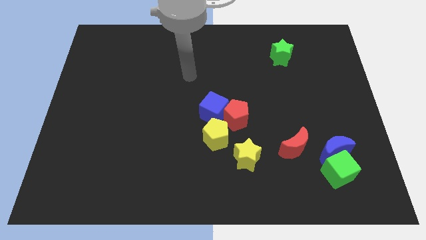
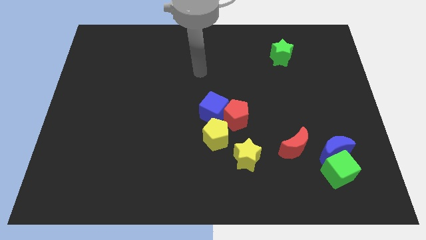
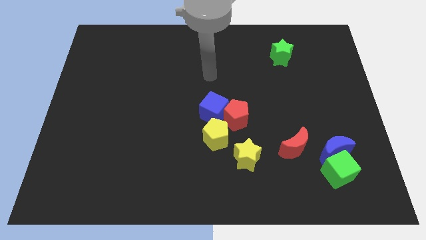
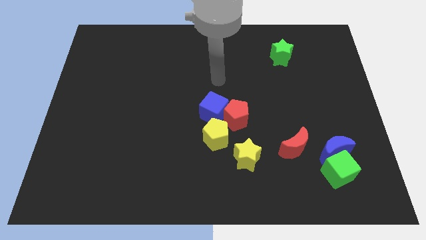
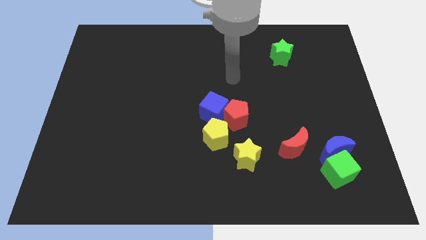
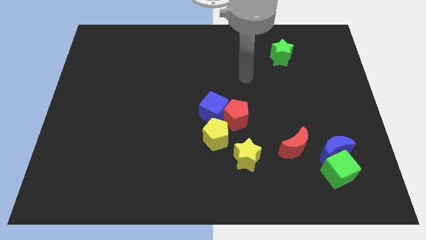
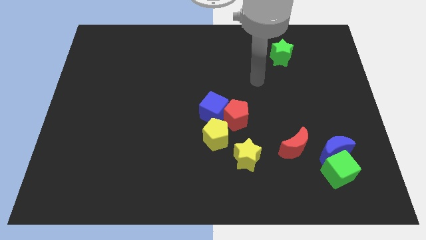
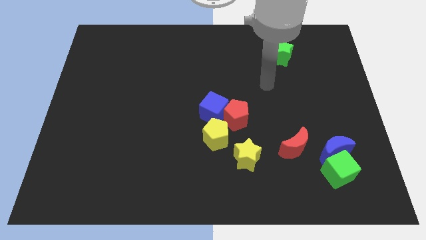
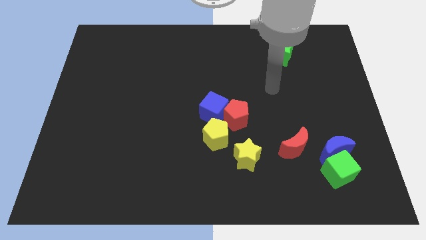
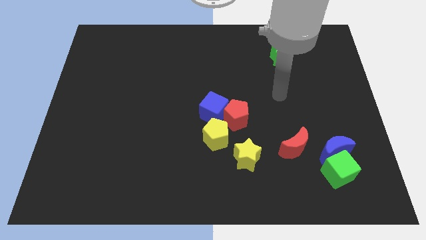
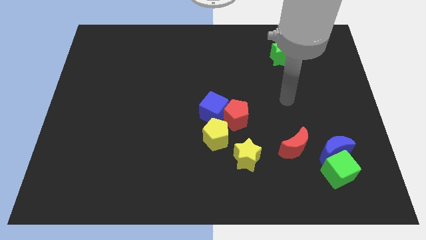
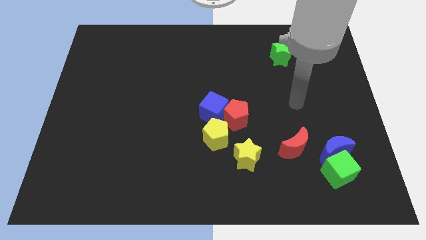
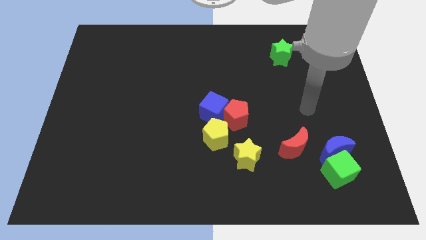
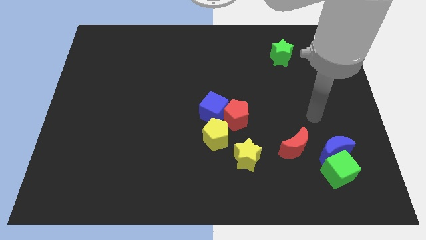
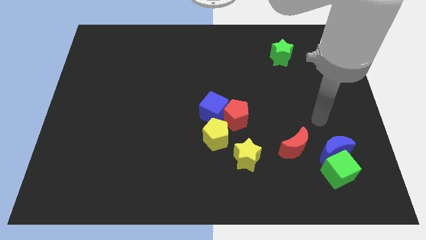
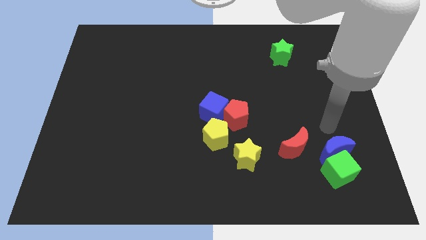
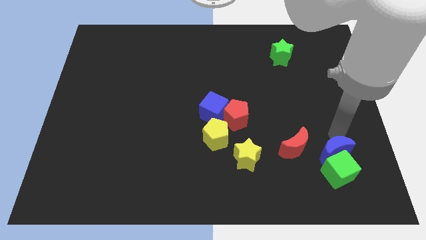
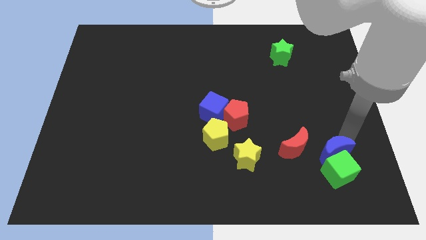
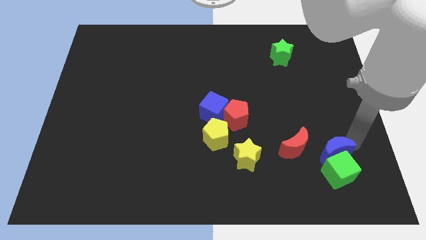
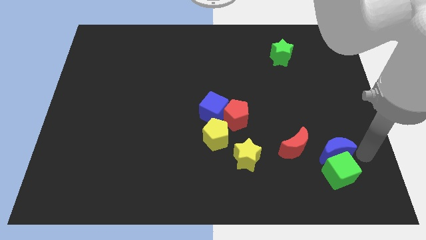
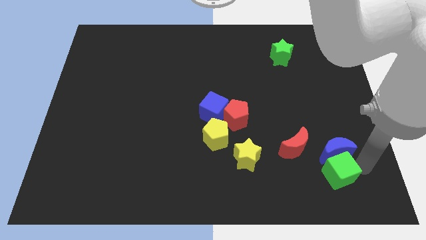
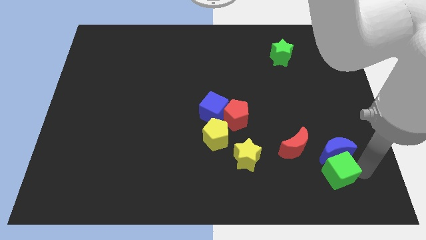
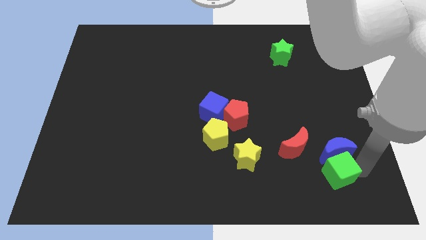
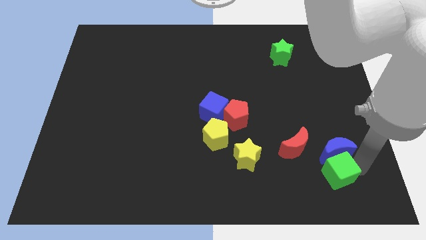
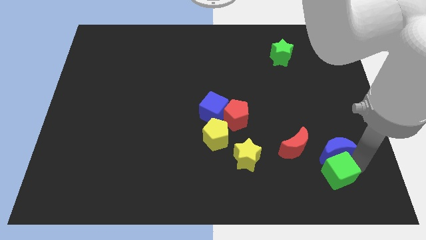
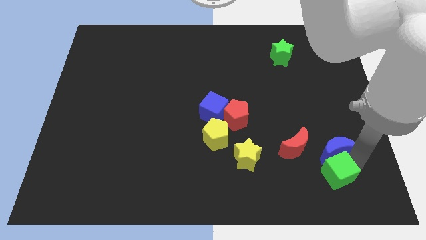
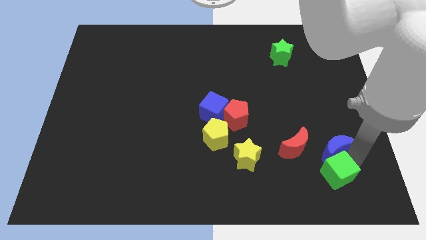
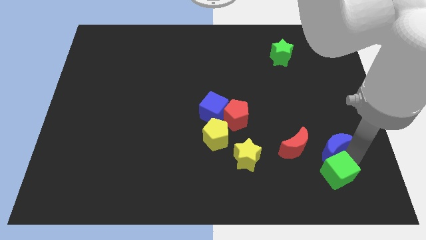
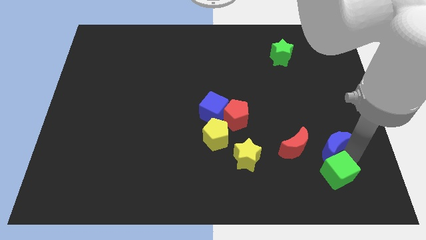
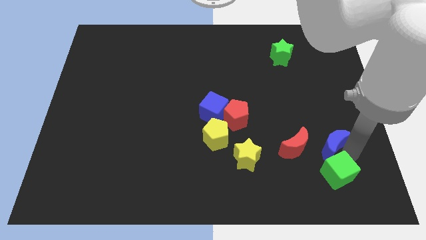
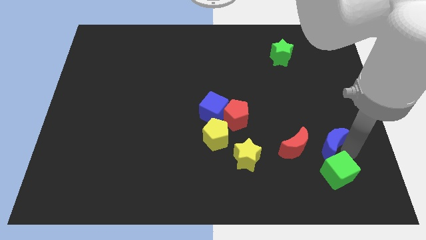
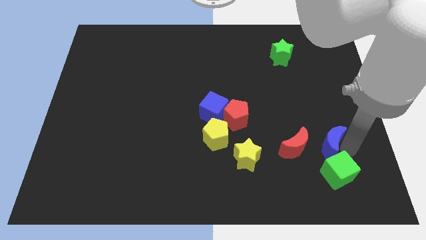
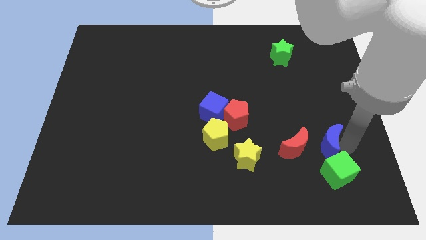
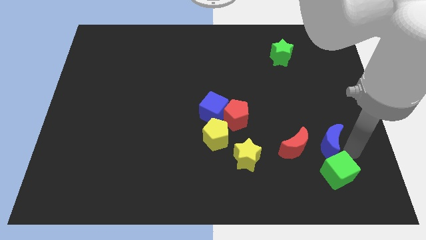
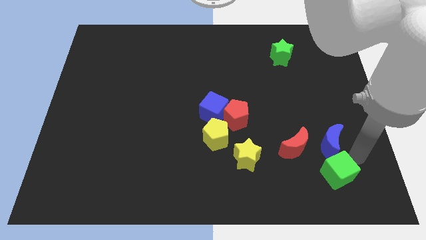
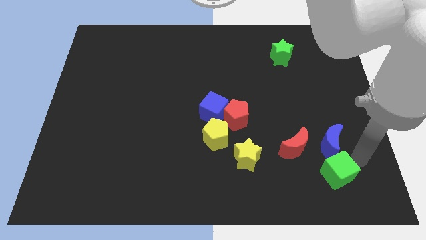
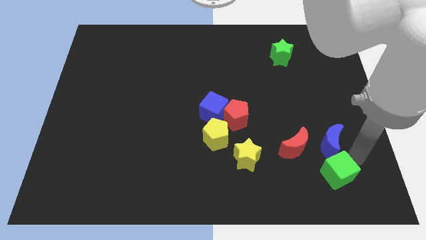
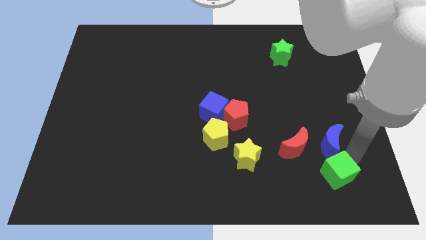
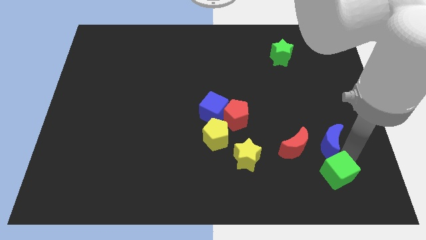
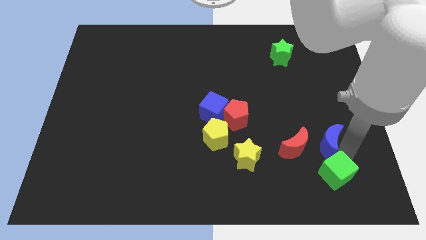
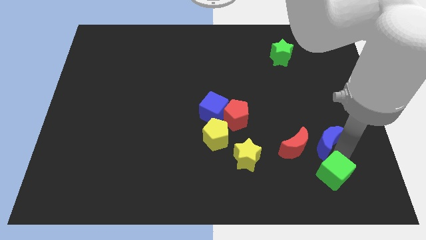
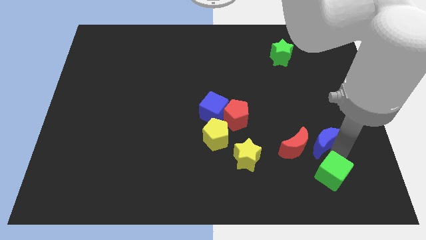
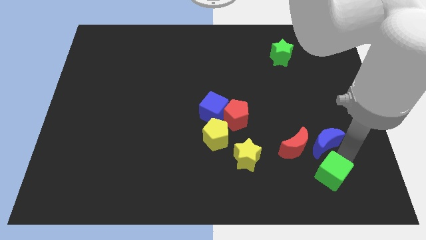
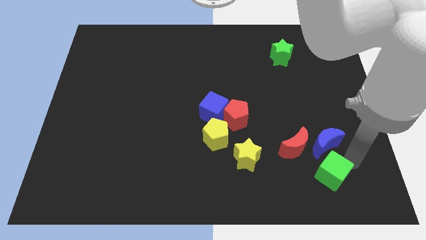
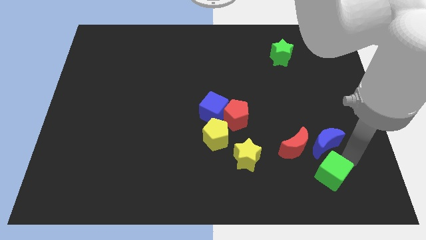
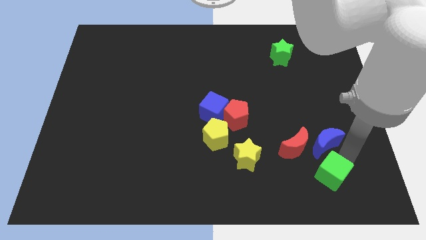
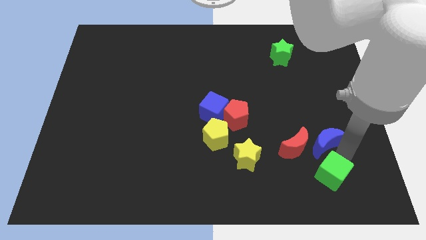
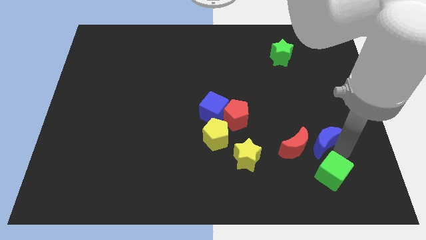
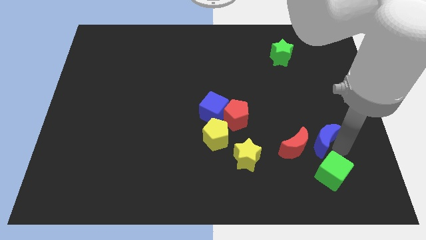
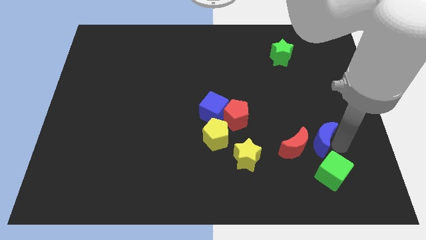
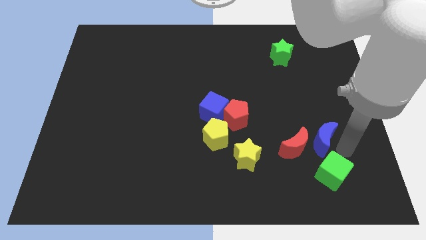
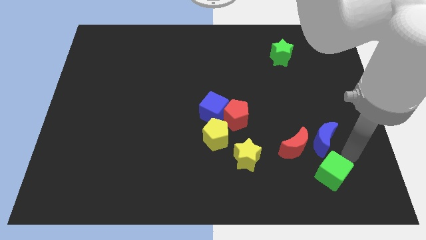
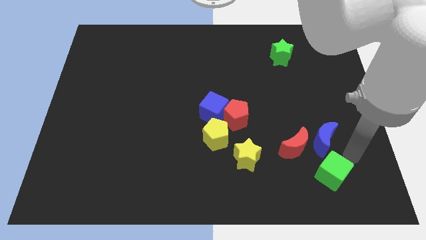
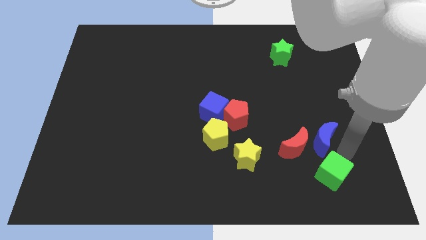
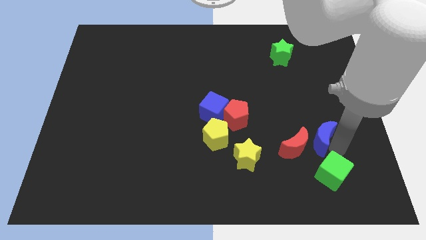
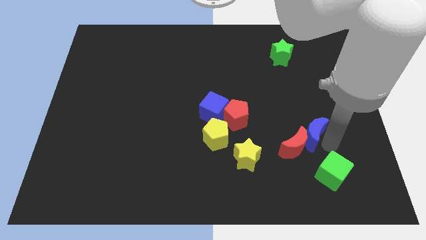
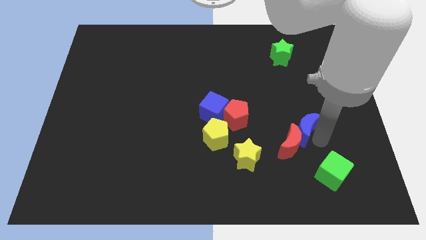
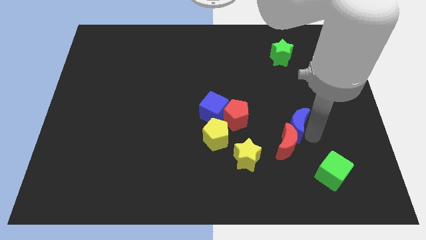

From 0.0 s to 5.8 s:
slide the blue moon to the right of the red pentagon

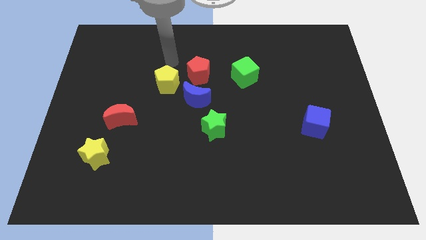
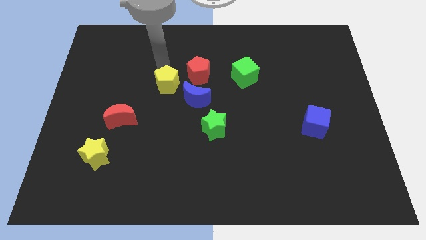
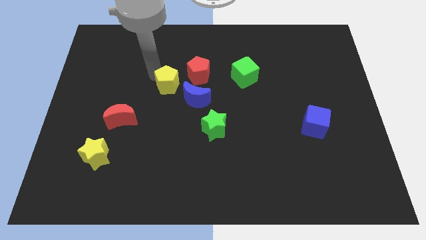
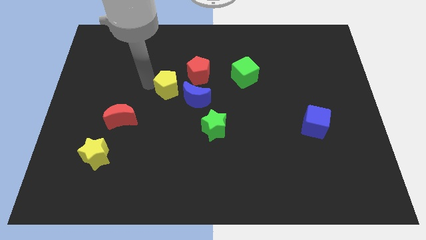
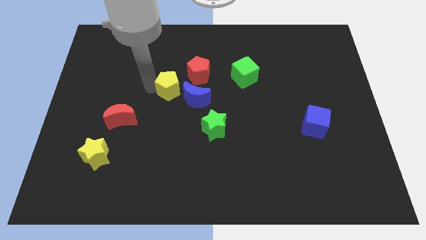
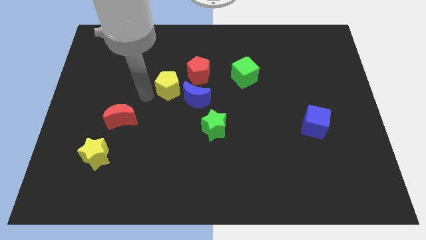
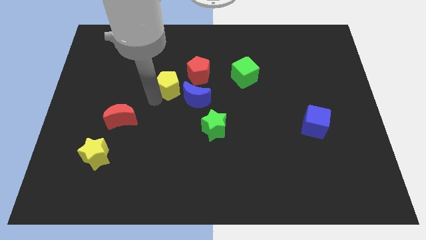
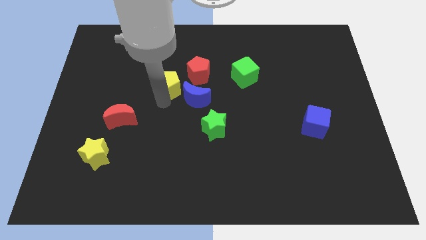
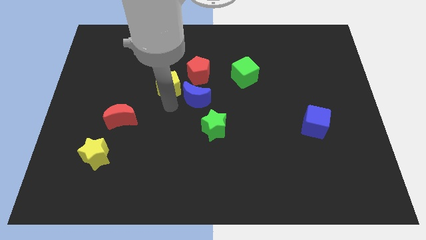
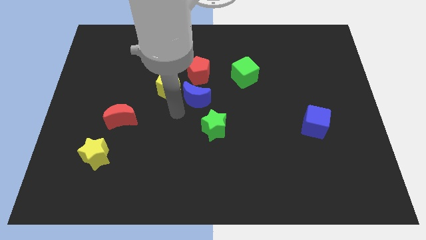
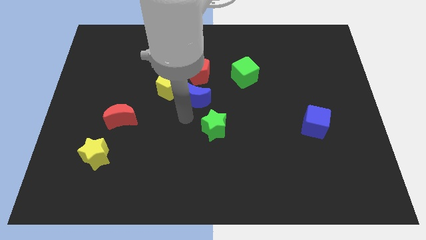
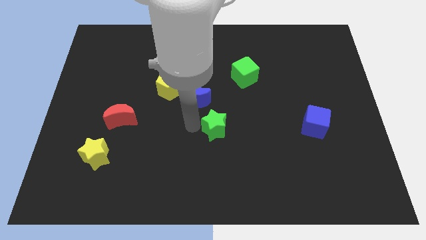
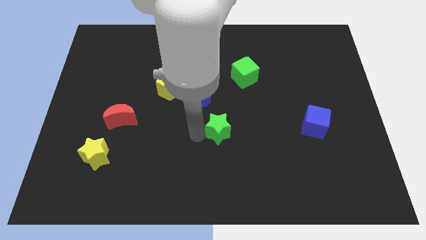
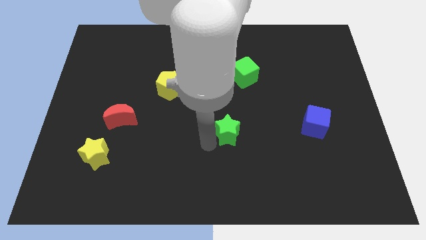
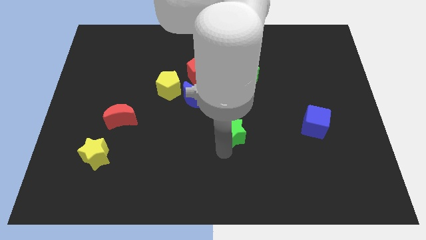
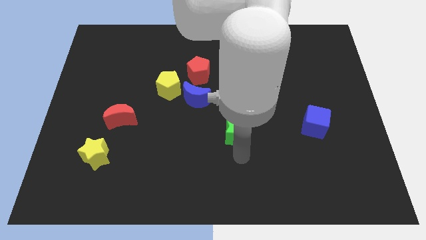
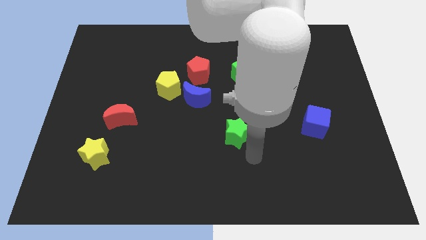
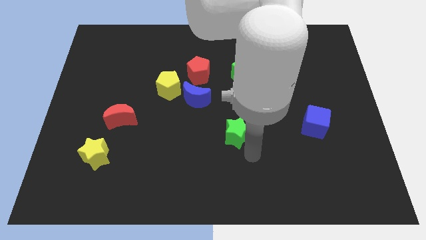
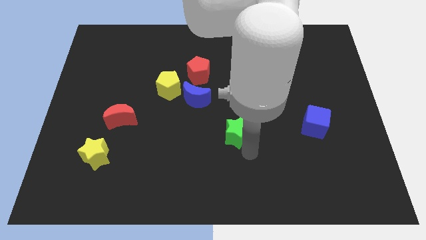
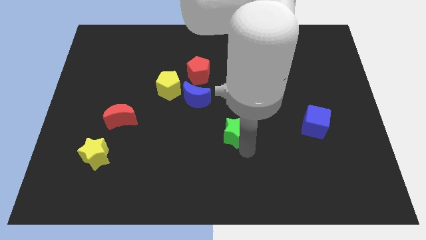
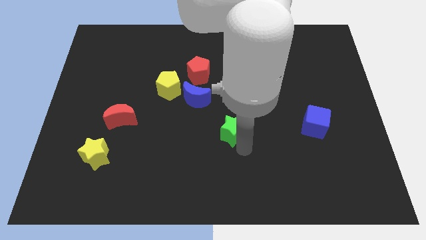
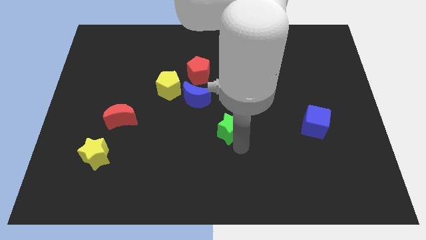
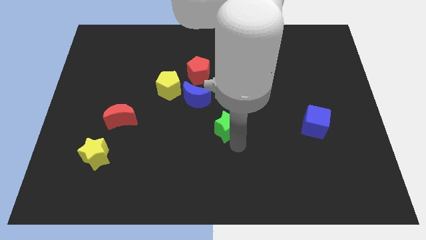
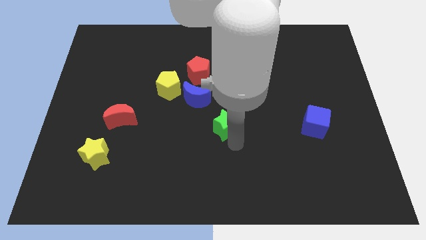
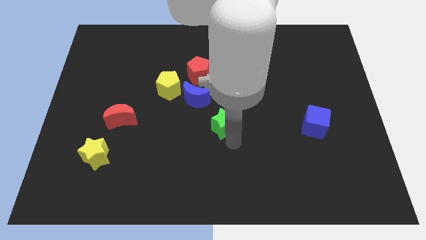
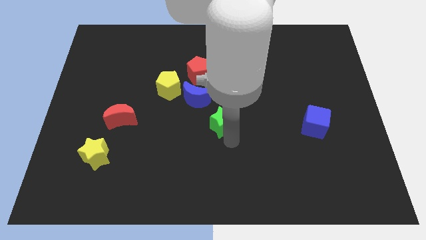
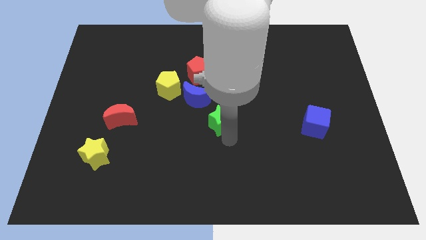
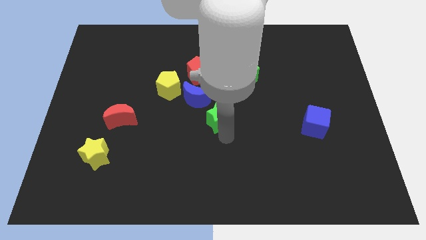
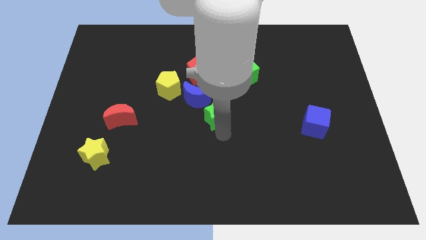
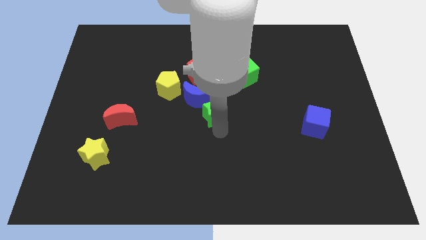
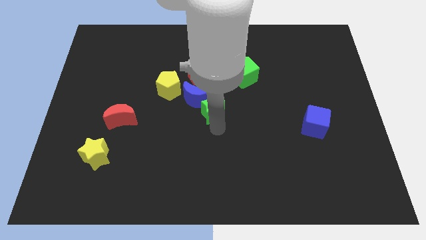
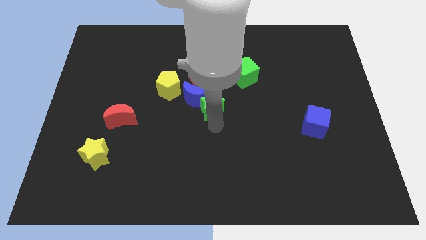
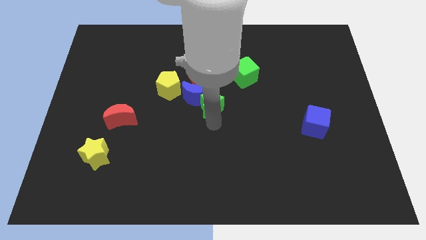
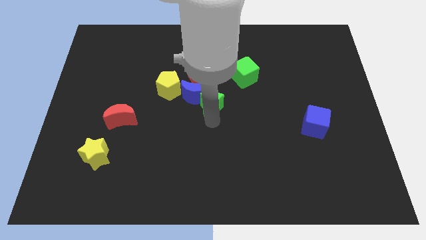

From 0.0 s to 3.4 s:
slide the green star diagonally down and to the right of the red pentagon
